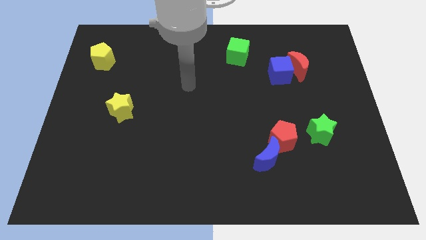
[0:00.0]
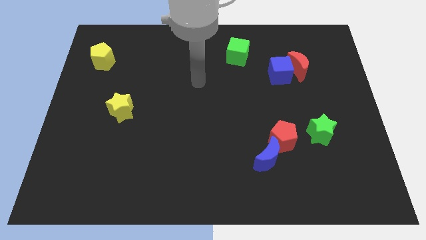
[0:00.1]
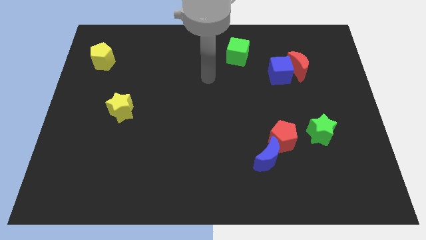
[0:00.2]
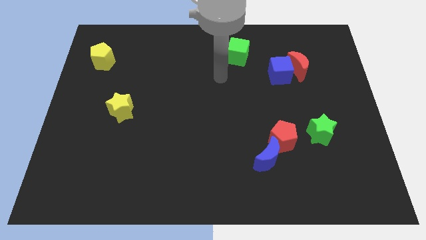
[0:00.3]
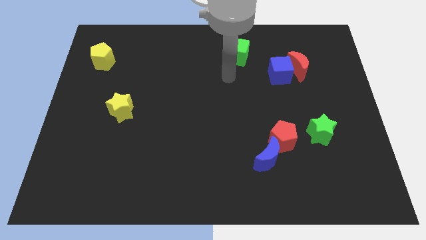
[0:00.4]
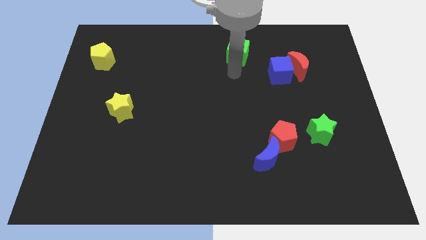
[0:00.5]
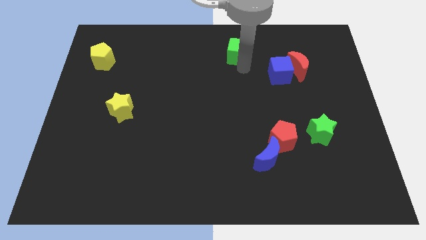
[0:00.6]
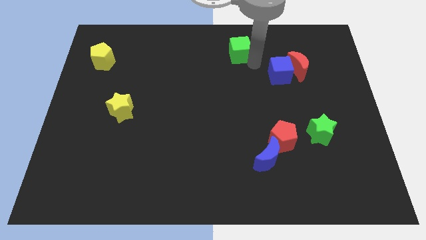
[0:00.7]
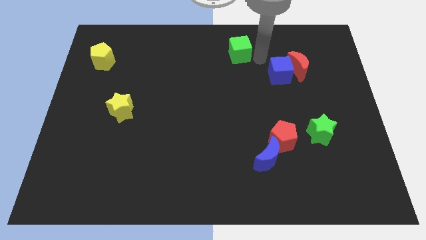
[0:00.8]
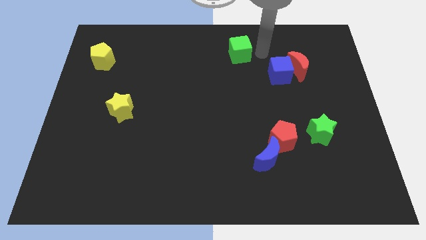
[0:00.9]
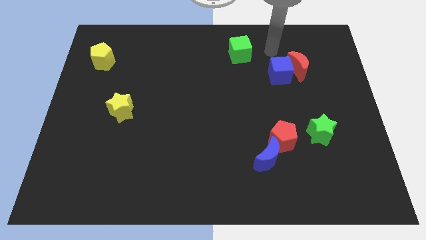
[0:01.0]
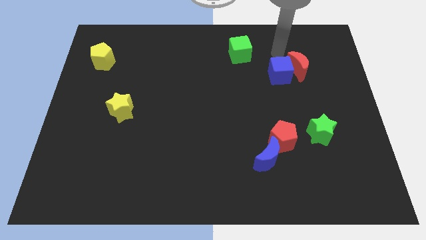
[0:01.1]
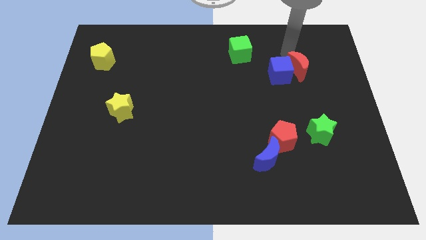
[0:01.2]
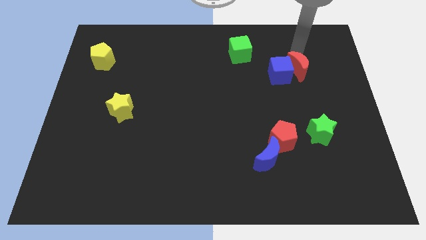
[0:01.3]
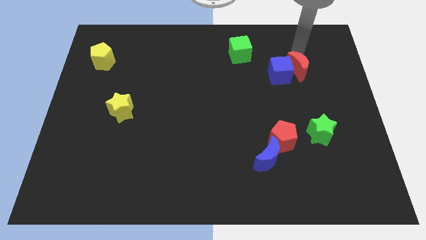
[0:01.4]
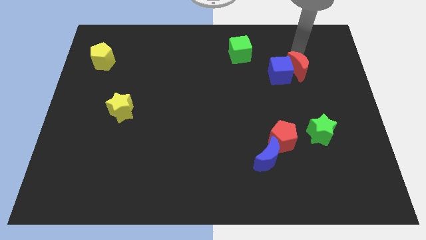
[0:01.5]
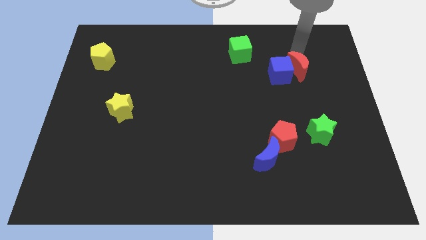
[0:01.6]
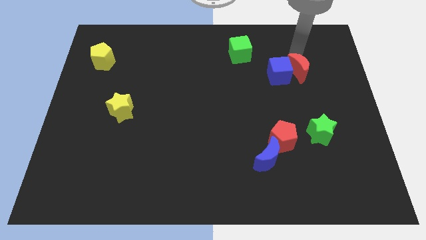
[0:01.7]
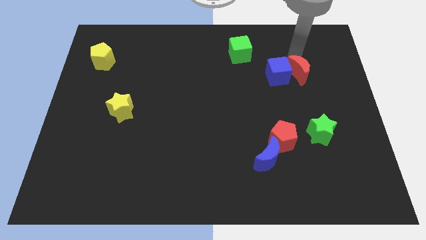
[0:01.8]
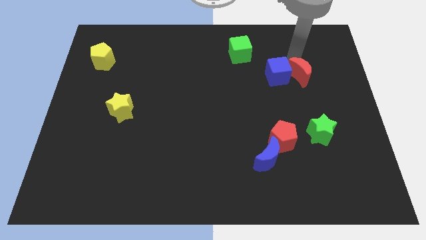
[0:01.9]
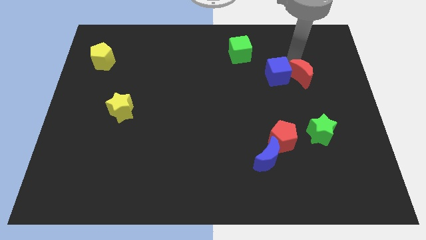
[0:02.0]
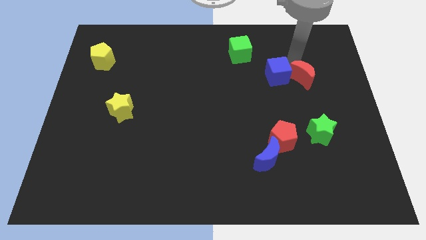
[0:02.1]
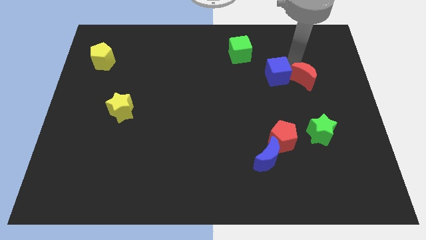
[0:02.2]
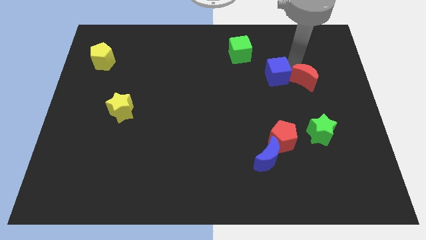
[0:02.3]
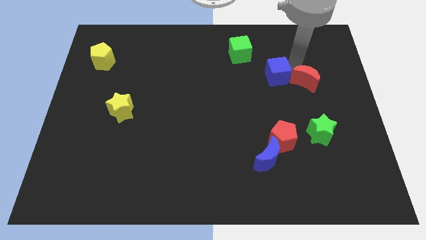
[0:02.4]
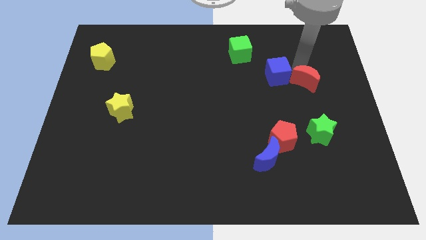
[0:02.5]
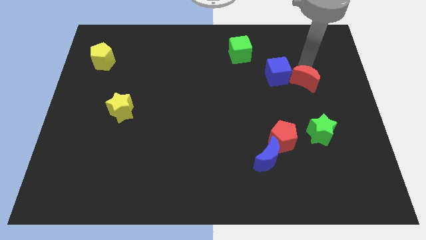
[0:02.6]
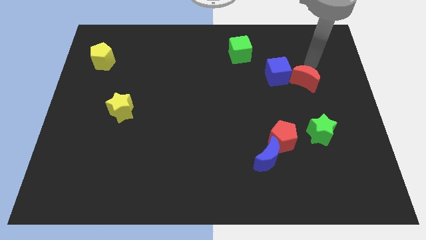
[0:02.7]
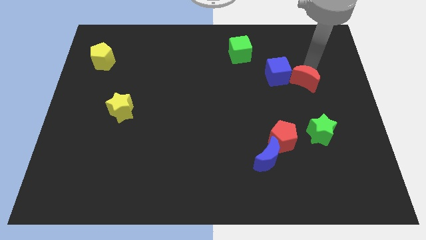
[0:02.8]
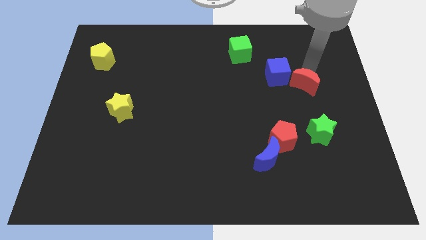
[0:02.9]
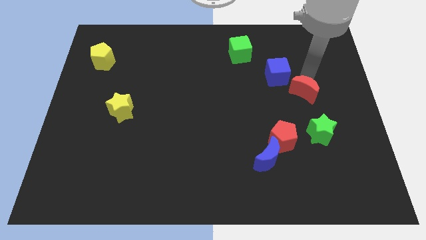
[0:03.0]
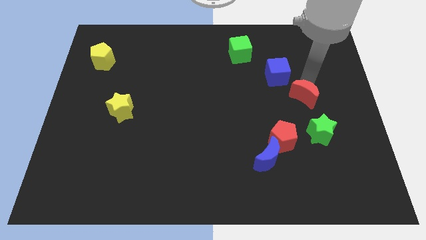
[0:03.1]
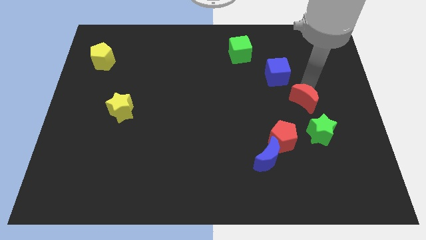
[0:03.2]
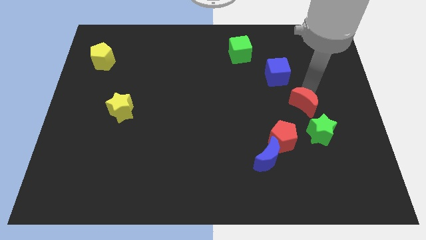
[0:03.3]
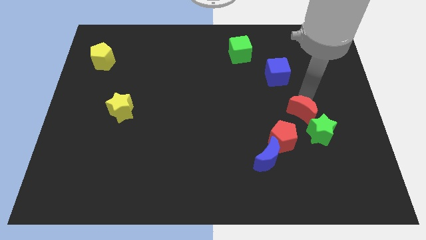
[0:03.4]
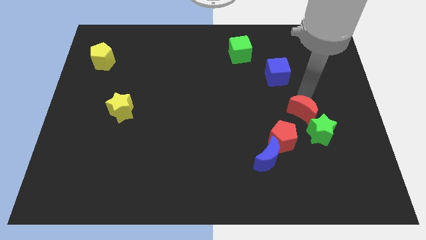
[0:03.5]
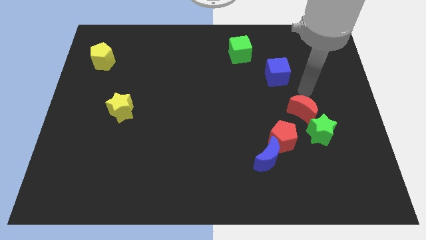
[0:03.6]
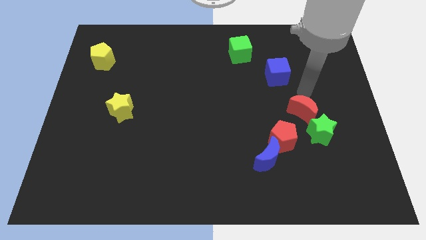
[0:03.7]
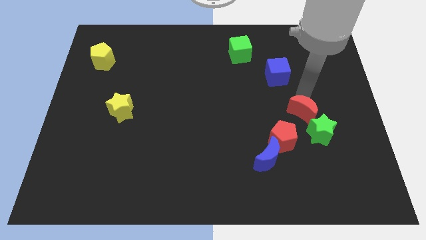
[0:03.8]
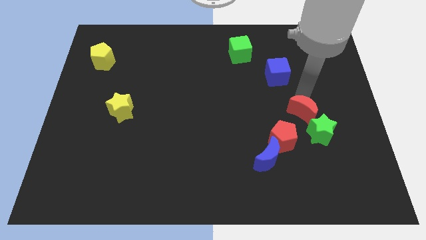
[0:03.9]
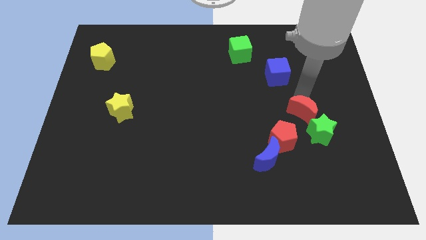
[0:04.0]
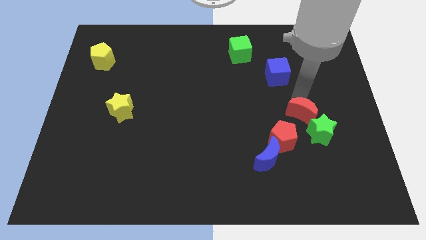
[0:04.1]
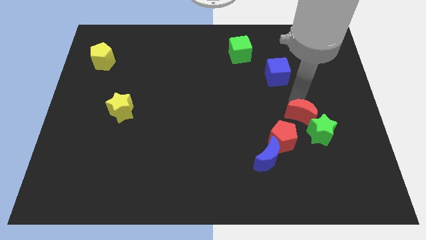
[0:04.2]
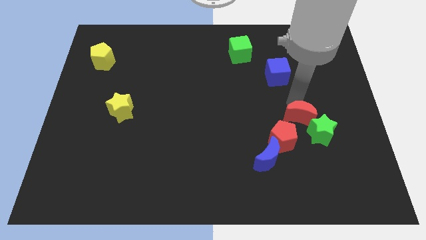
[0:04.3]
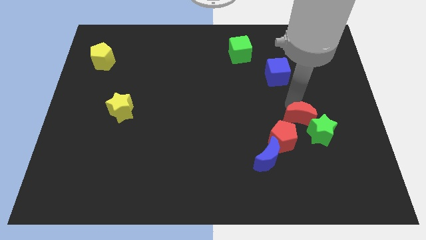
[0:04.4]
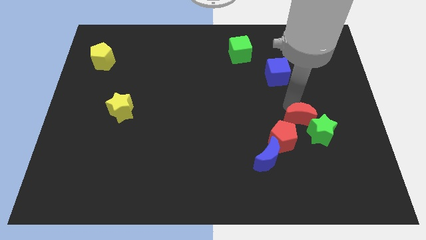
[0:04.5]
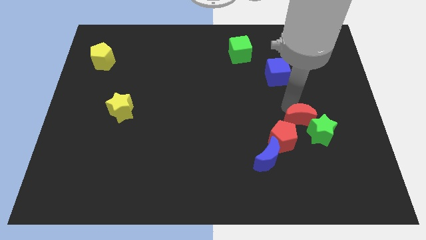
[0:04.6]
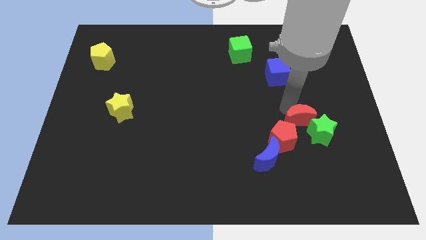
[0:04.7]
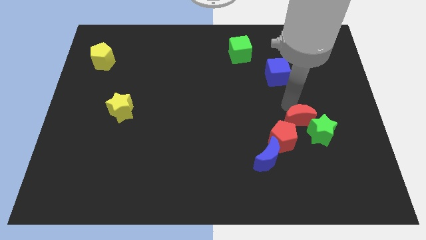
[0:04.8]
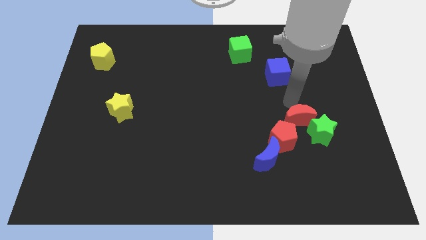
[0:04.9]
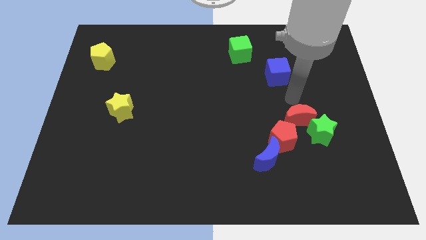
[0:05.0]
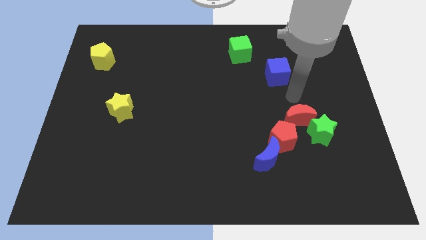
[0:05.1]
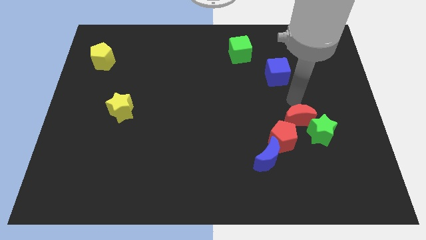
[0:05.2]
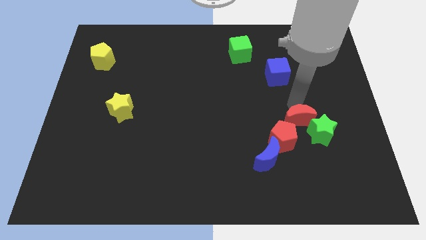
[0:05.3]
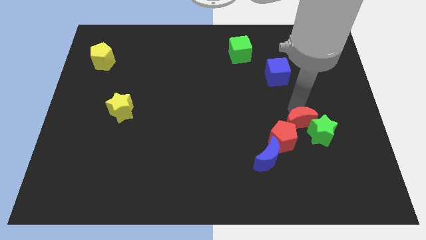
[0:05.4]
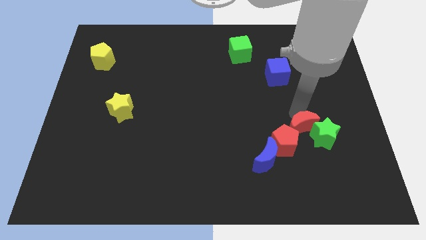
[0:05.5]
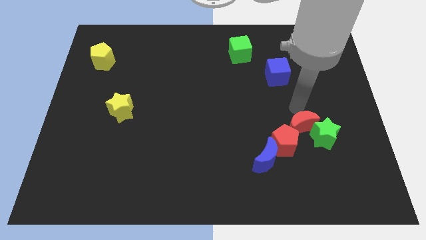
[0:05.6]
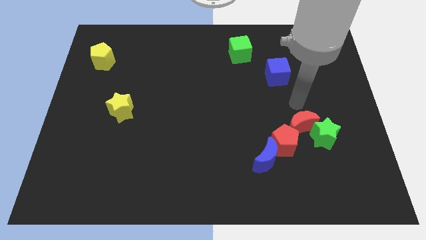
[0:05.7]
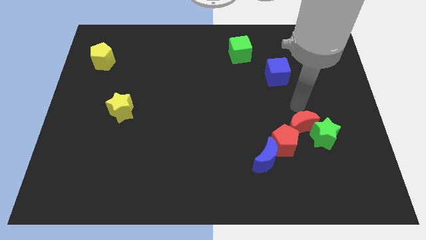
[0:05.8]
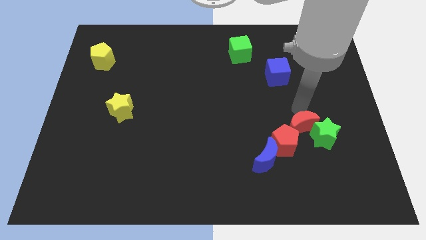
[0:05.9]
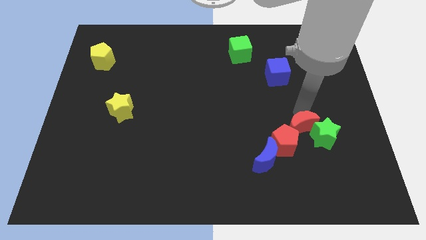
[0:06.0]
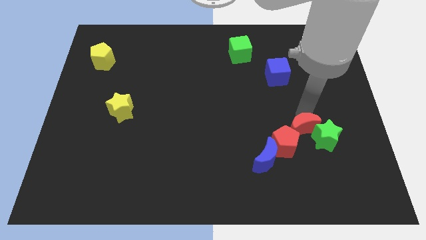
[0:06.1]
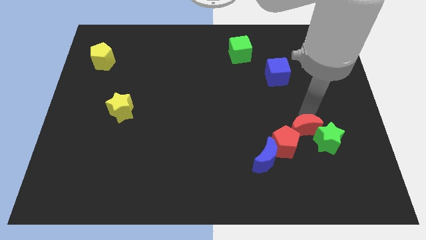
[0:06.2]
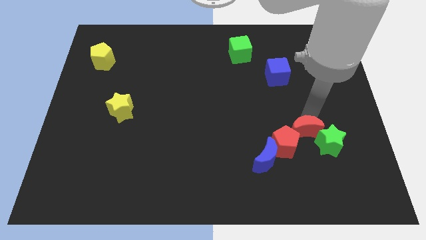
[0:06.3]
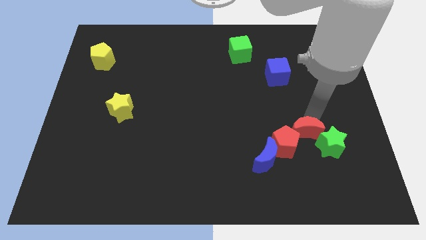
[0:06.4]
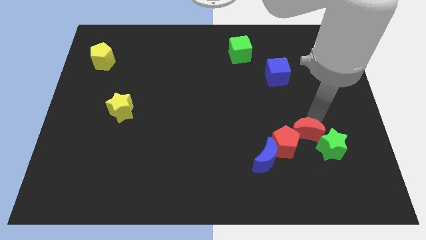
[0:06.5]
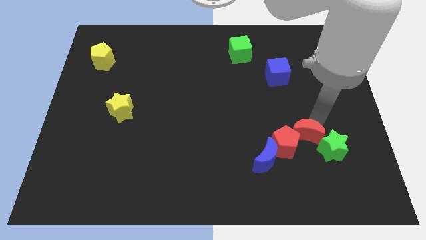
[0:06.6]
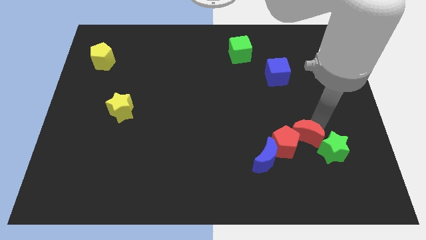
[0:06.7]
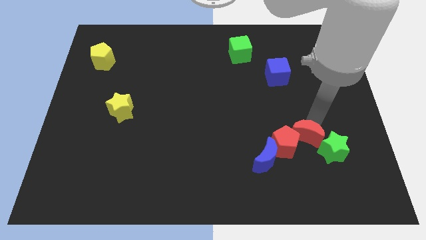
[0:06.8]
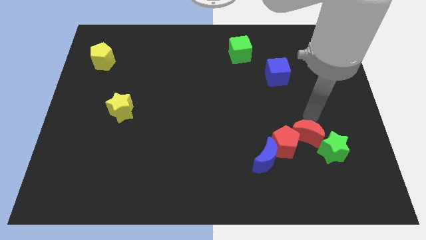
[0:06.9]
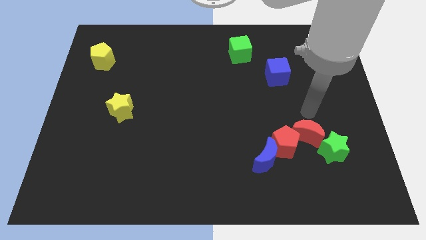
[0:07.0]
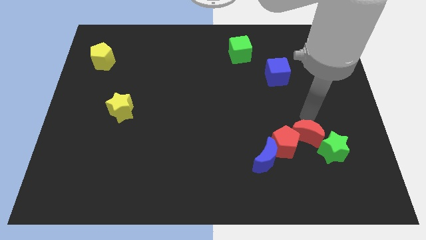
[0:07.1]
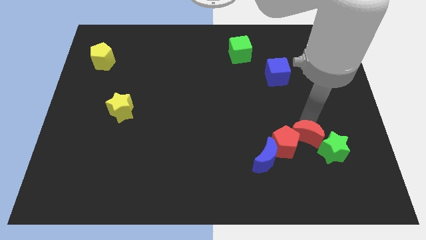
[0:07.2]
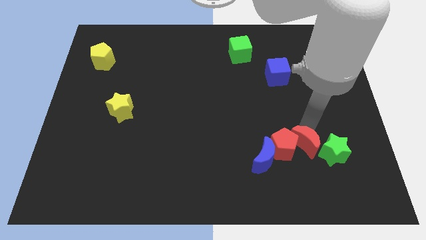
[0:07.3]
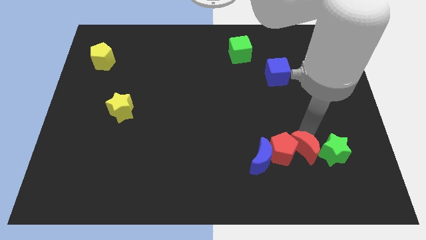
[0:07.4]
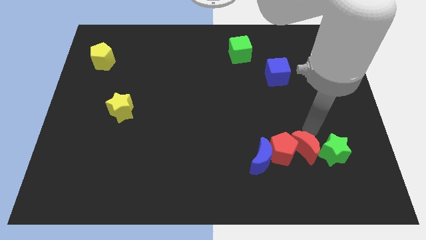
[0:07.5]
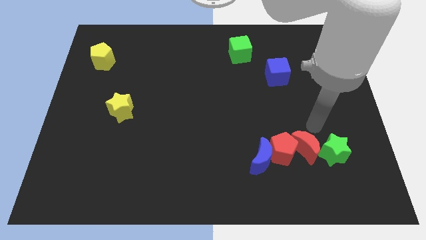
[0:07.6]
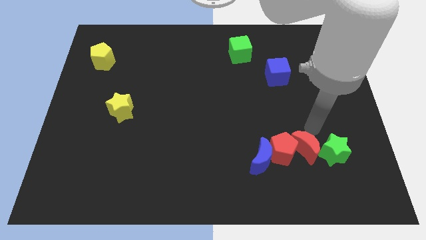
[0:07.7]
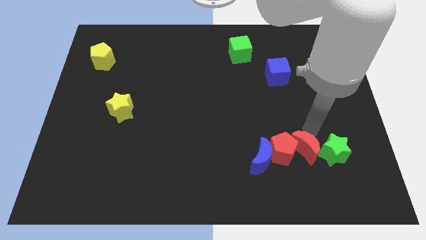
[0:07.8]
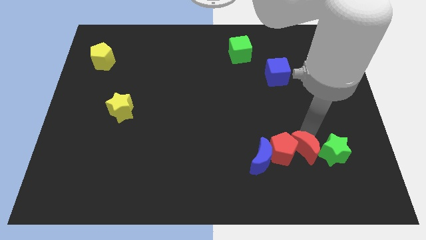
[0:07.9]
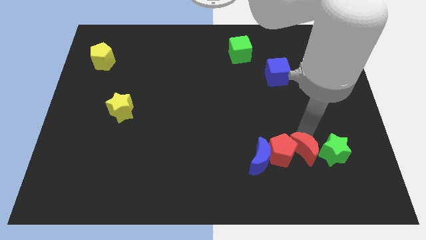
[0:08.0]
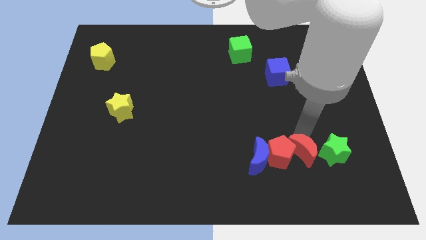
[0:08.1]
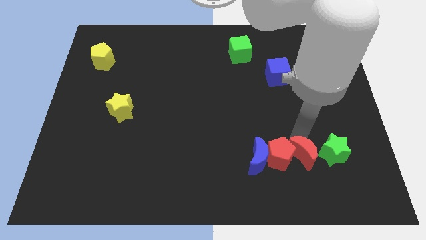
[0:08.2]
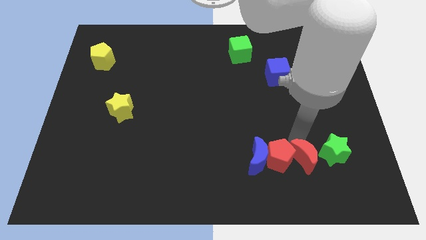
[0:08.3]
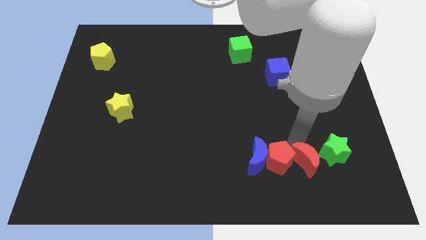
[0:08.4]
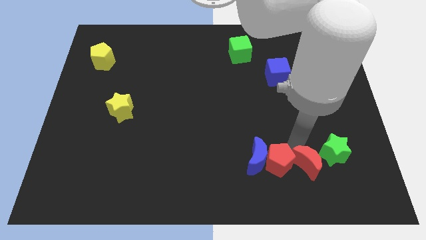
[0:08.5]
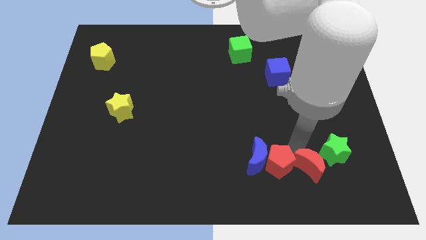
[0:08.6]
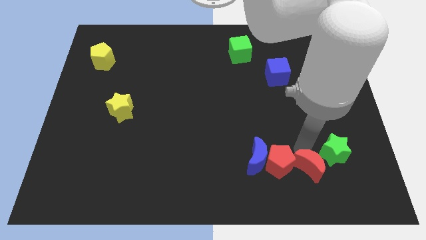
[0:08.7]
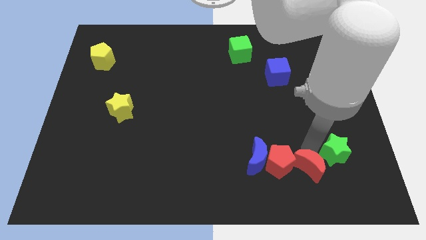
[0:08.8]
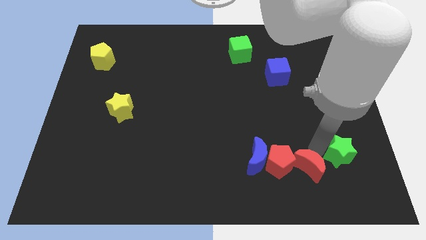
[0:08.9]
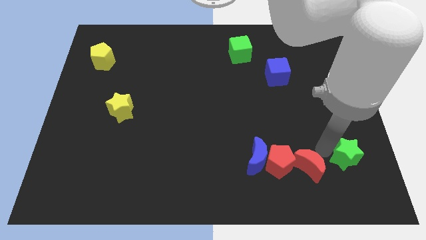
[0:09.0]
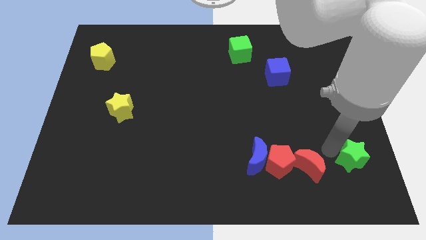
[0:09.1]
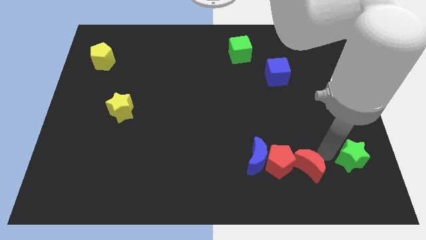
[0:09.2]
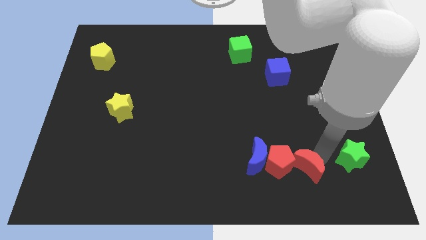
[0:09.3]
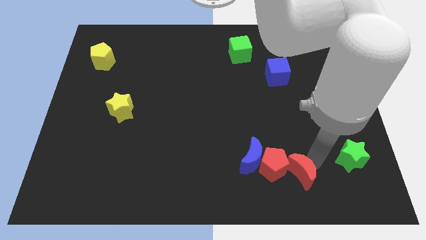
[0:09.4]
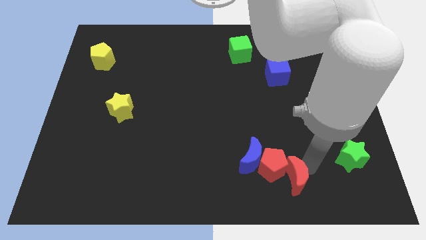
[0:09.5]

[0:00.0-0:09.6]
move the red moon to the bottom right of the blue moon
